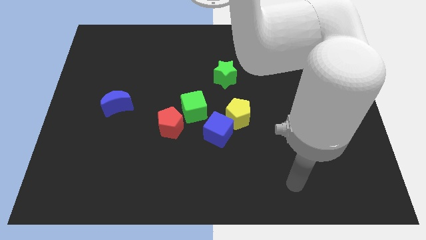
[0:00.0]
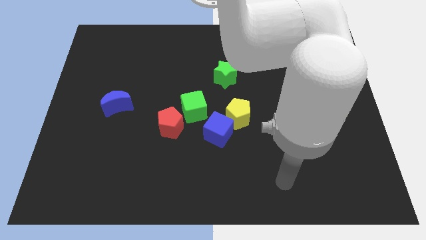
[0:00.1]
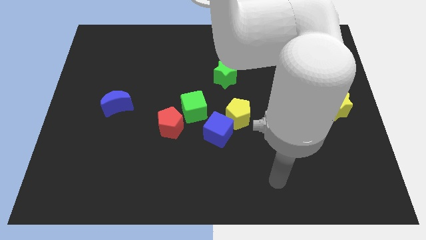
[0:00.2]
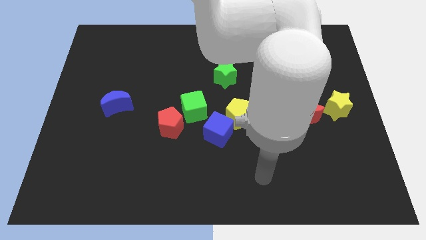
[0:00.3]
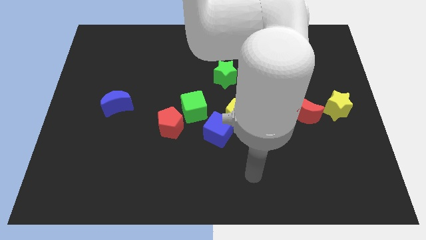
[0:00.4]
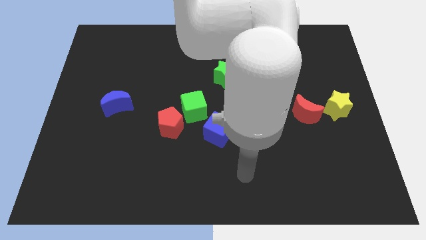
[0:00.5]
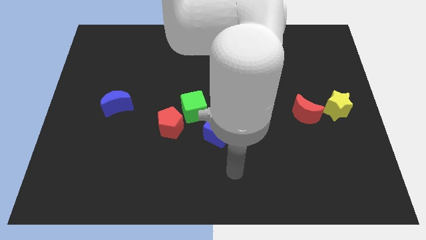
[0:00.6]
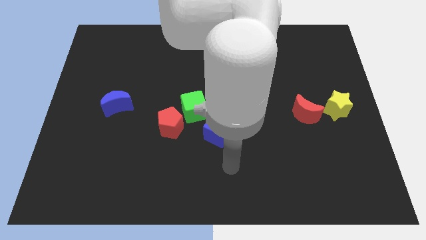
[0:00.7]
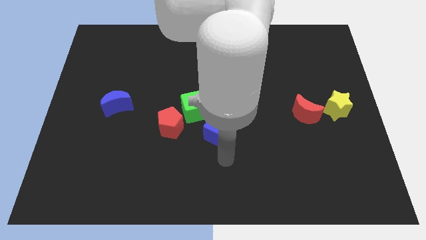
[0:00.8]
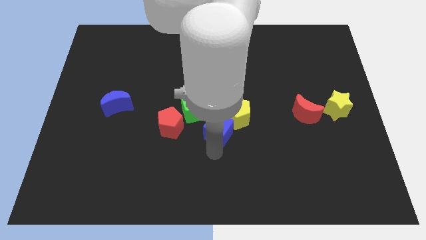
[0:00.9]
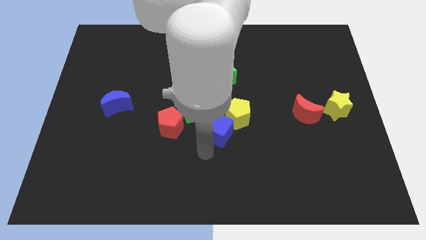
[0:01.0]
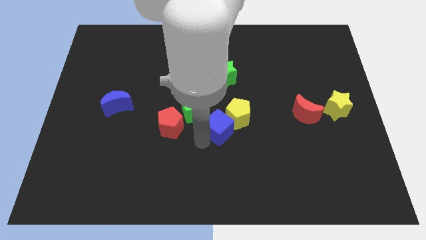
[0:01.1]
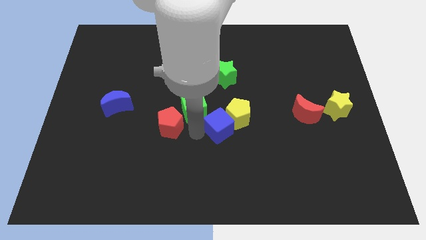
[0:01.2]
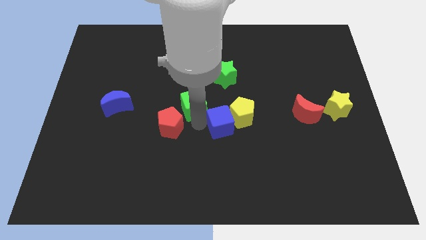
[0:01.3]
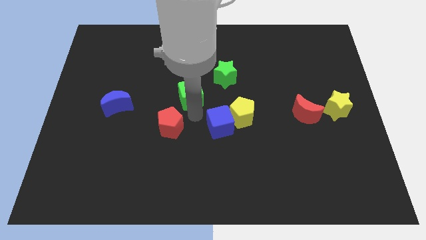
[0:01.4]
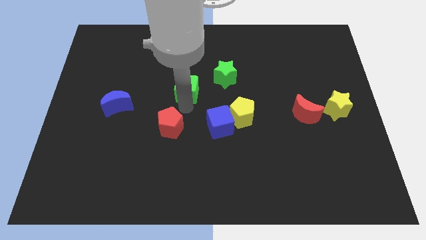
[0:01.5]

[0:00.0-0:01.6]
separate the red pentagon from the green cube

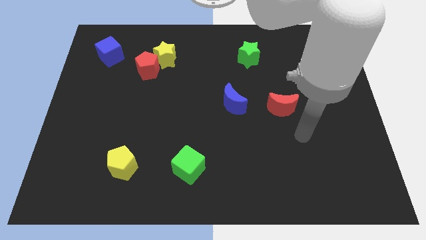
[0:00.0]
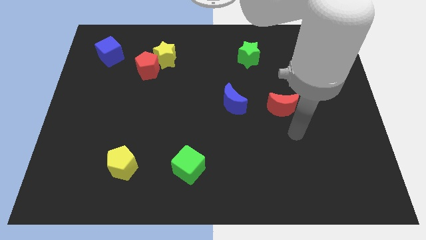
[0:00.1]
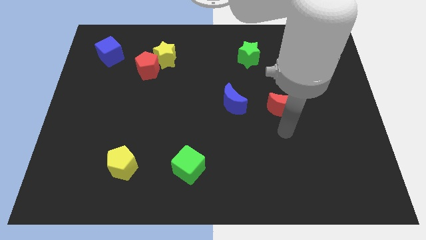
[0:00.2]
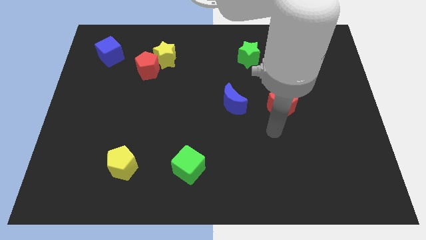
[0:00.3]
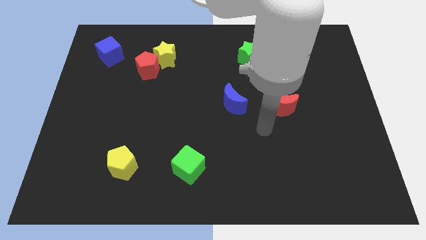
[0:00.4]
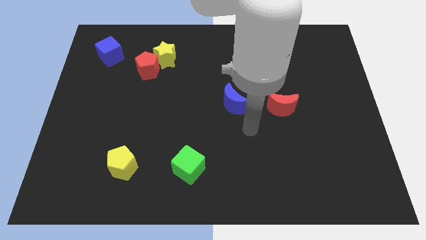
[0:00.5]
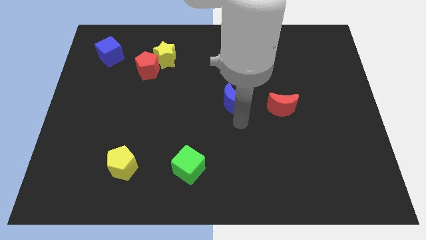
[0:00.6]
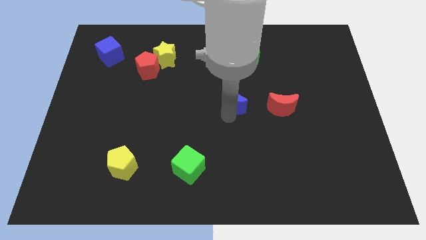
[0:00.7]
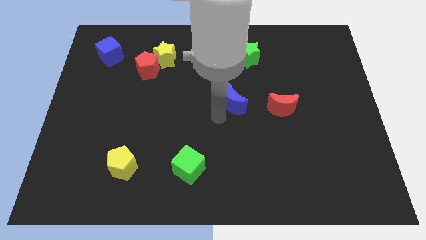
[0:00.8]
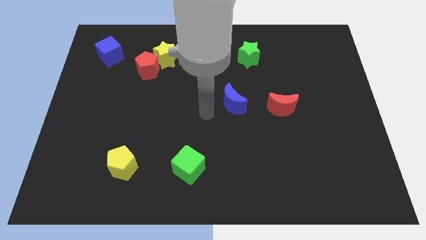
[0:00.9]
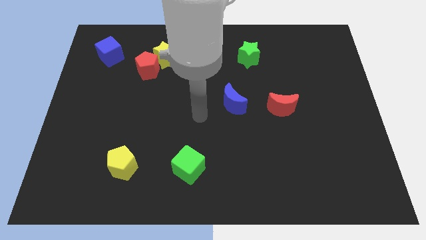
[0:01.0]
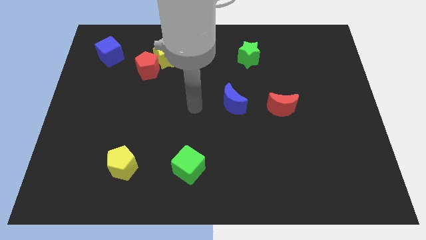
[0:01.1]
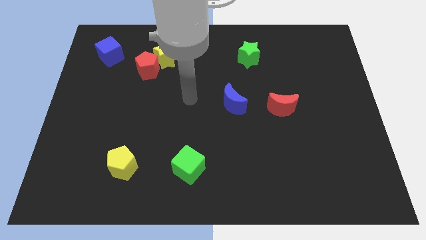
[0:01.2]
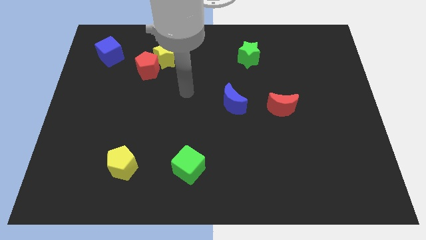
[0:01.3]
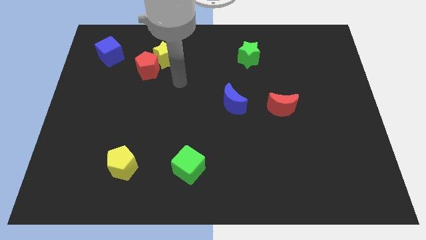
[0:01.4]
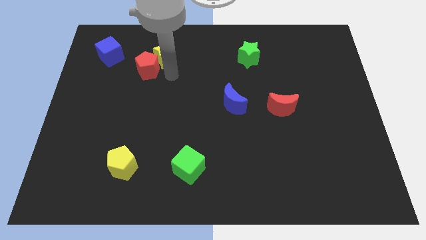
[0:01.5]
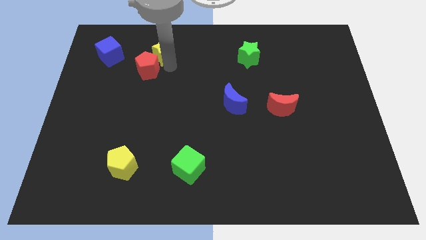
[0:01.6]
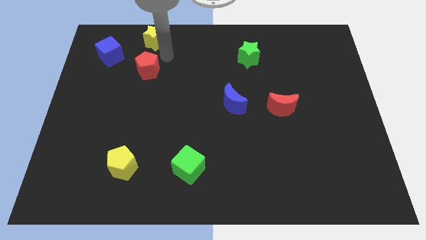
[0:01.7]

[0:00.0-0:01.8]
separate the red pentagon from the yellow star

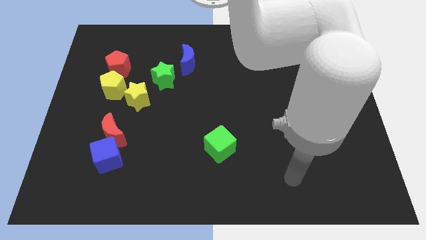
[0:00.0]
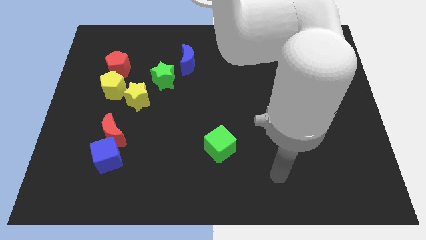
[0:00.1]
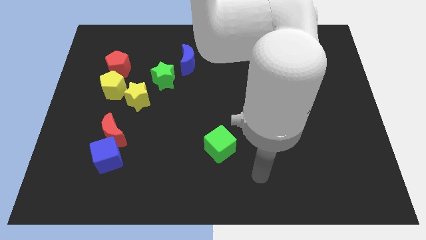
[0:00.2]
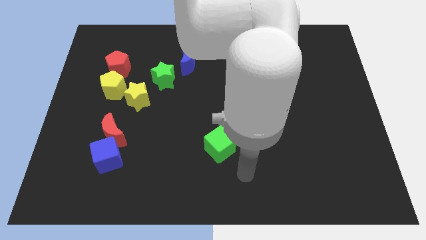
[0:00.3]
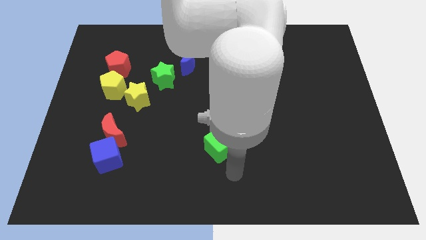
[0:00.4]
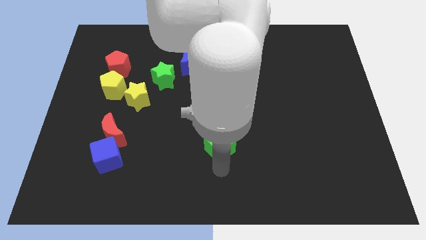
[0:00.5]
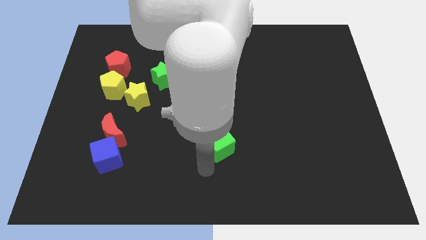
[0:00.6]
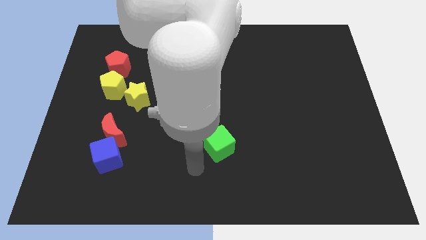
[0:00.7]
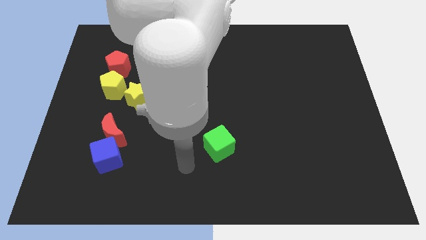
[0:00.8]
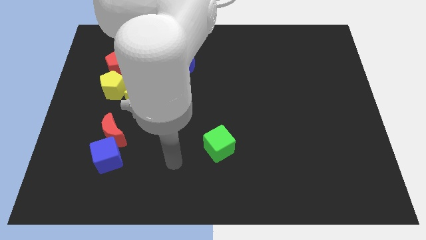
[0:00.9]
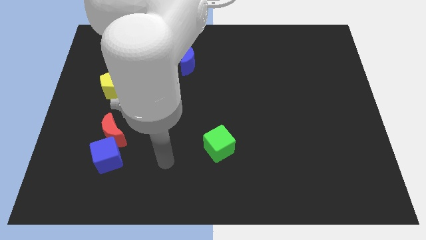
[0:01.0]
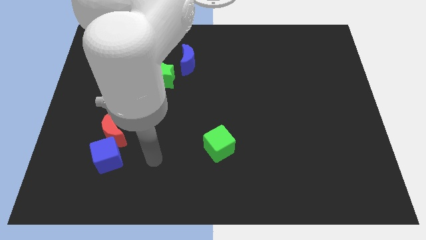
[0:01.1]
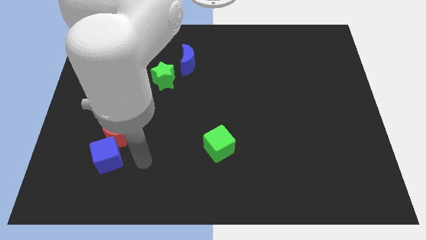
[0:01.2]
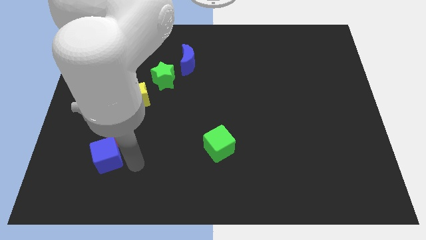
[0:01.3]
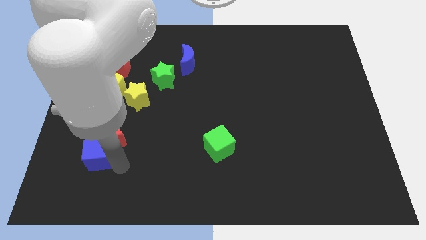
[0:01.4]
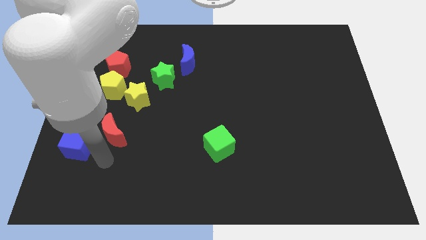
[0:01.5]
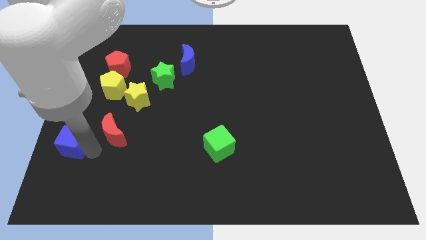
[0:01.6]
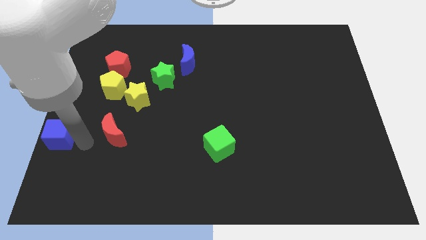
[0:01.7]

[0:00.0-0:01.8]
separate the red moon from the blue cube

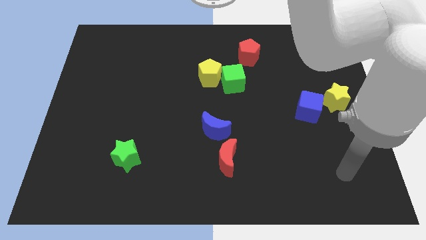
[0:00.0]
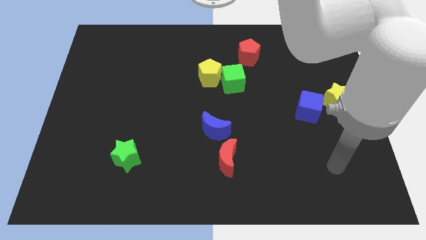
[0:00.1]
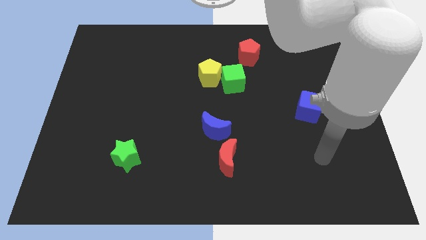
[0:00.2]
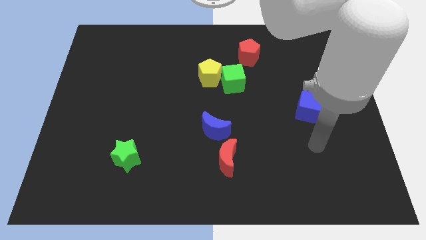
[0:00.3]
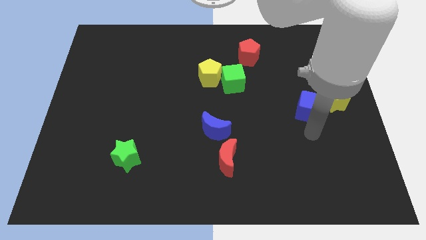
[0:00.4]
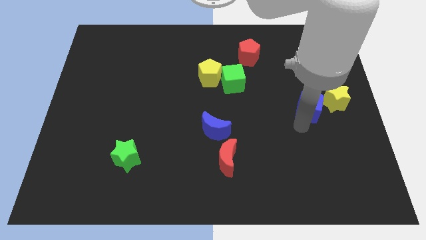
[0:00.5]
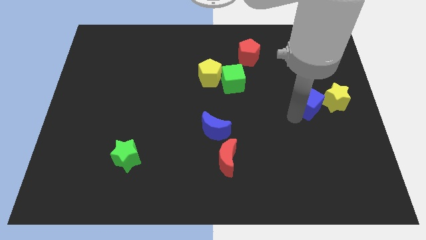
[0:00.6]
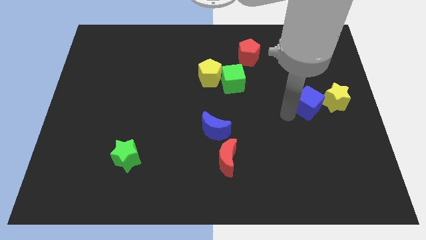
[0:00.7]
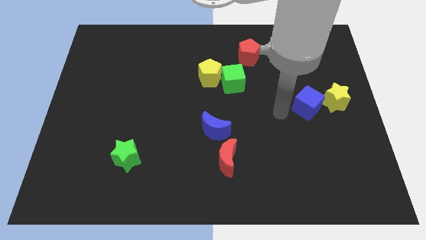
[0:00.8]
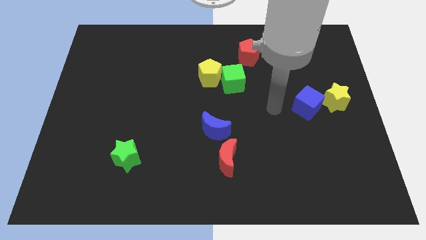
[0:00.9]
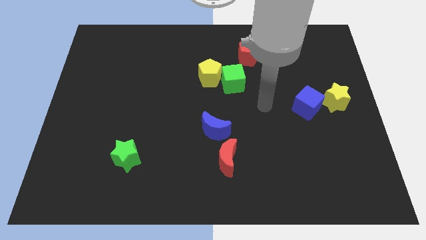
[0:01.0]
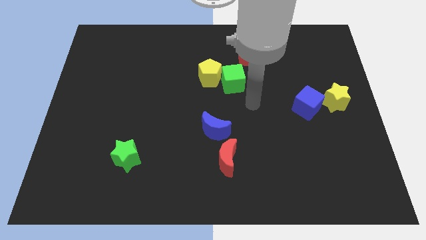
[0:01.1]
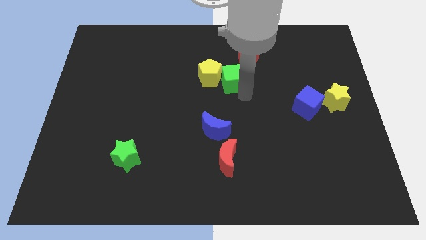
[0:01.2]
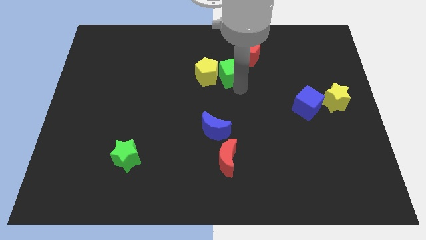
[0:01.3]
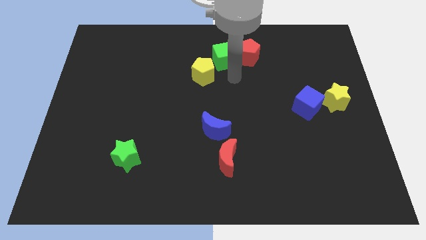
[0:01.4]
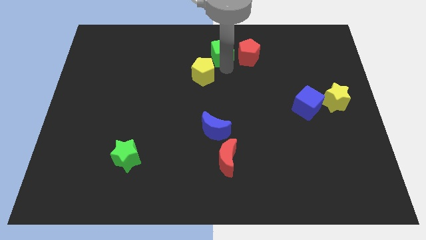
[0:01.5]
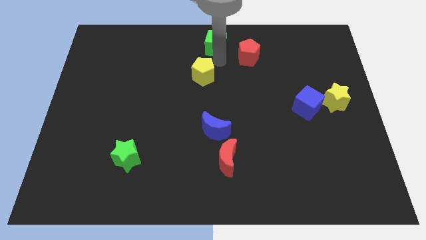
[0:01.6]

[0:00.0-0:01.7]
separate the yellow pentagon from the green cube

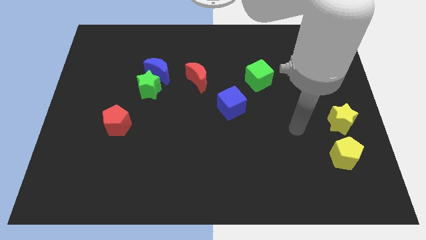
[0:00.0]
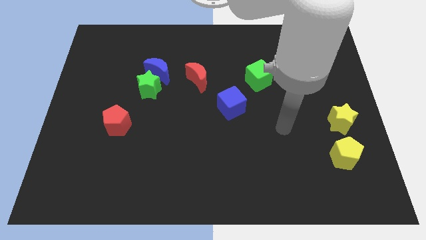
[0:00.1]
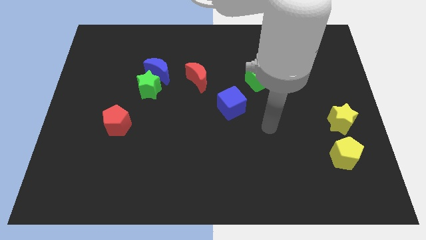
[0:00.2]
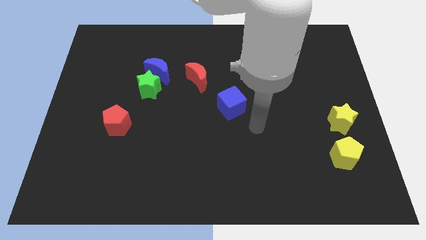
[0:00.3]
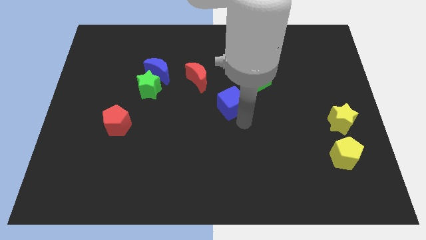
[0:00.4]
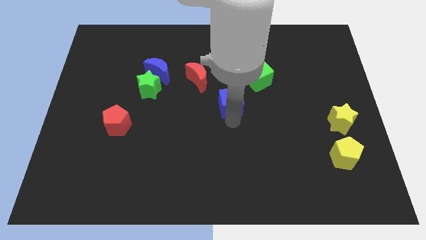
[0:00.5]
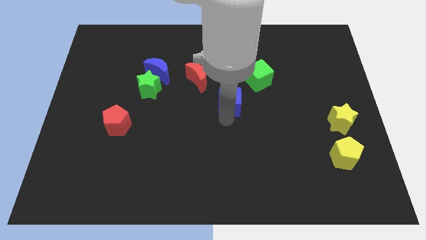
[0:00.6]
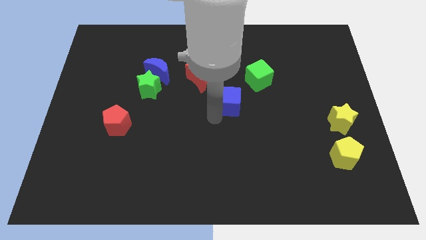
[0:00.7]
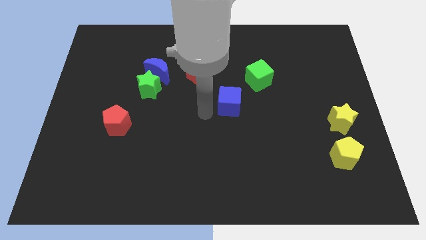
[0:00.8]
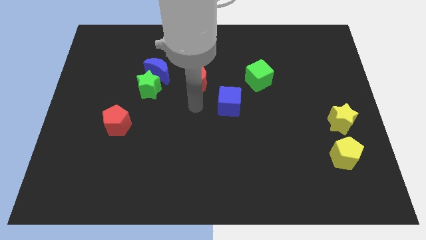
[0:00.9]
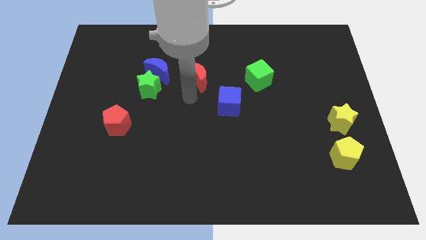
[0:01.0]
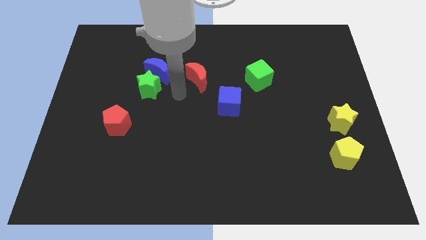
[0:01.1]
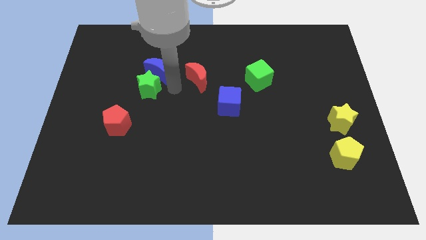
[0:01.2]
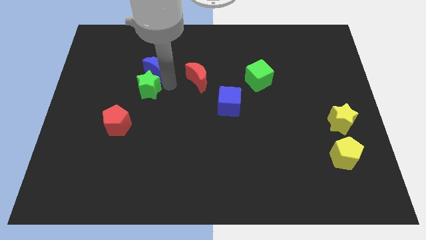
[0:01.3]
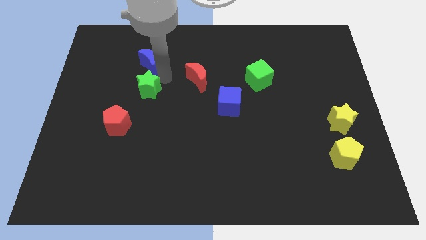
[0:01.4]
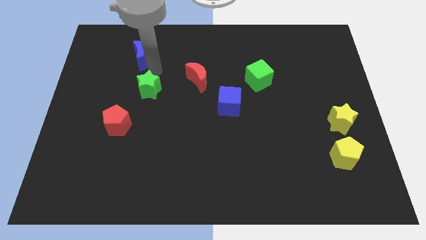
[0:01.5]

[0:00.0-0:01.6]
move the green star away from the blue moon

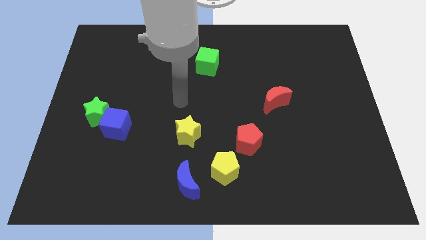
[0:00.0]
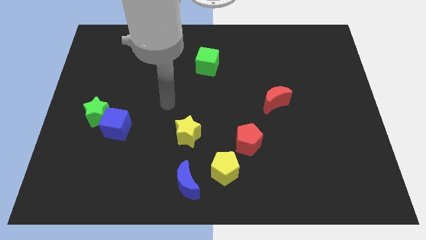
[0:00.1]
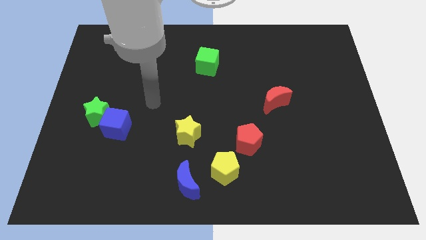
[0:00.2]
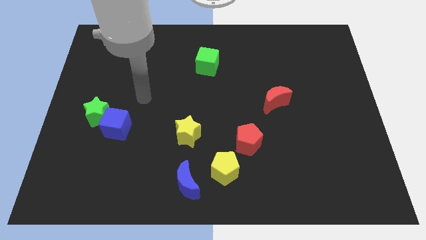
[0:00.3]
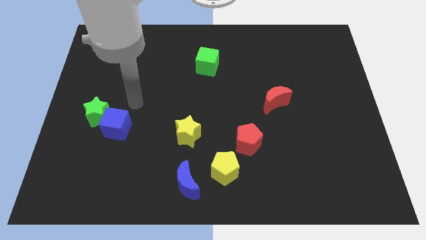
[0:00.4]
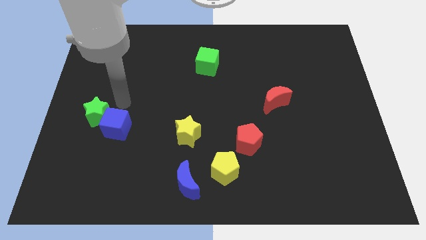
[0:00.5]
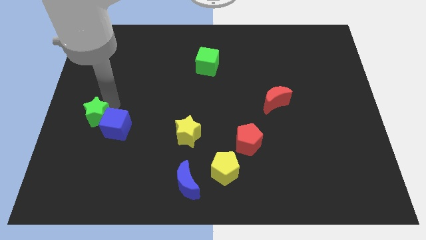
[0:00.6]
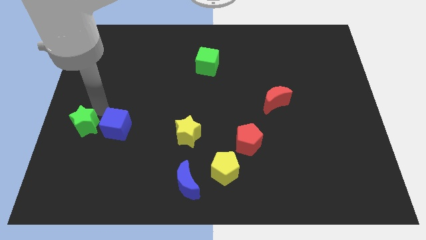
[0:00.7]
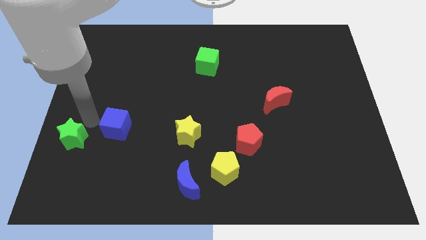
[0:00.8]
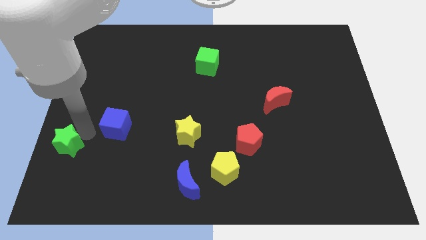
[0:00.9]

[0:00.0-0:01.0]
separate the blue cube from the green star
